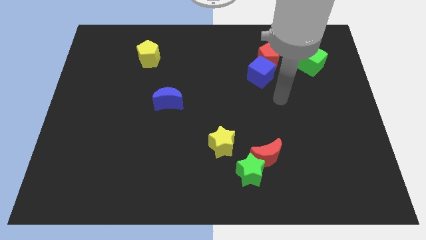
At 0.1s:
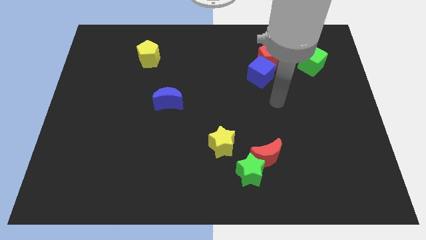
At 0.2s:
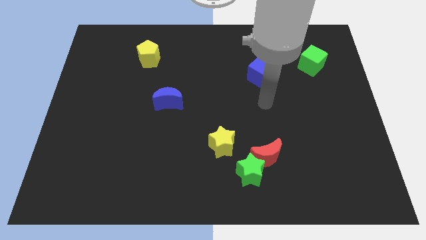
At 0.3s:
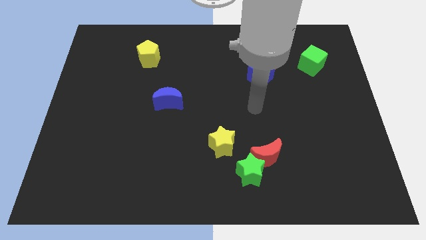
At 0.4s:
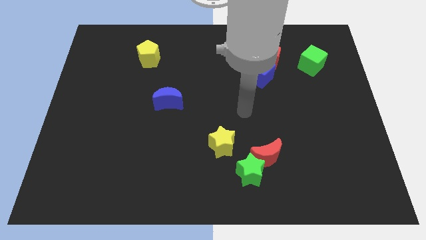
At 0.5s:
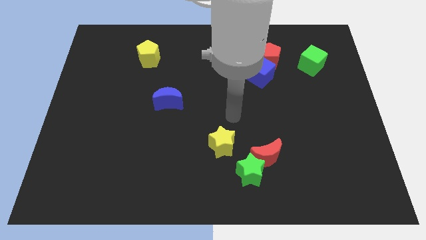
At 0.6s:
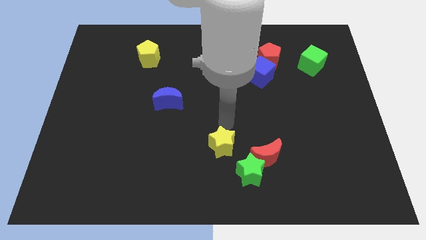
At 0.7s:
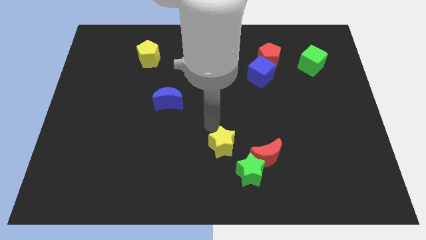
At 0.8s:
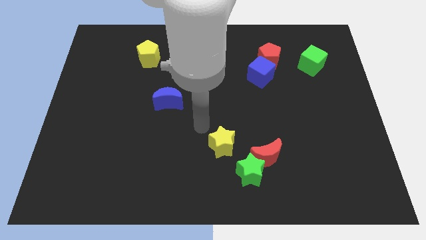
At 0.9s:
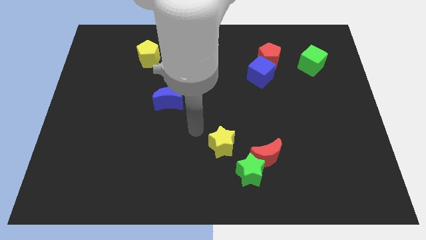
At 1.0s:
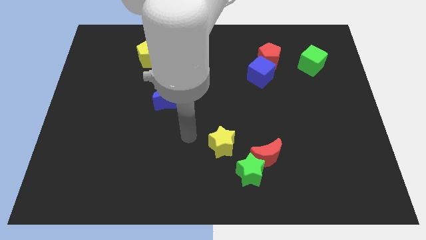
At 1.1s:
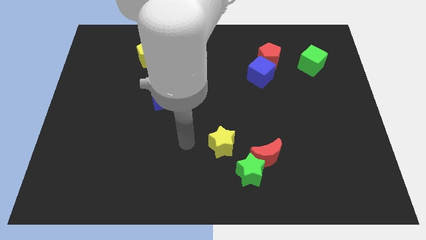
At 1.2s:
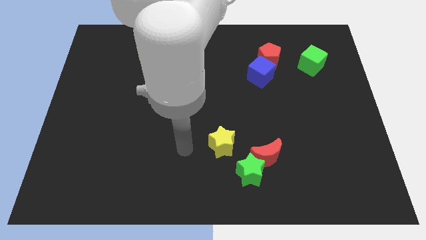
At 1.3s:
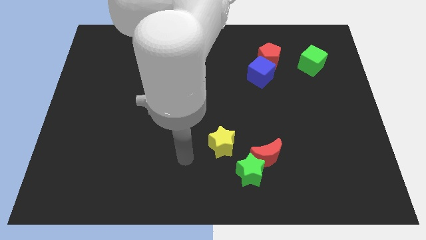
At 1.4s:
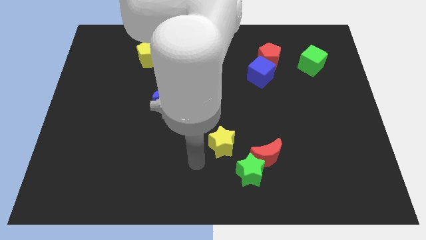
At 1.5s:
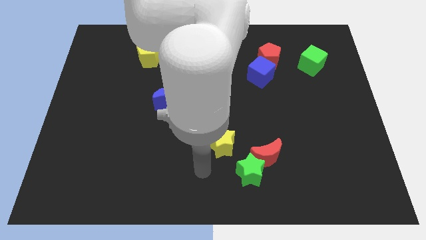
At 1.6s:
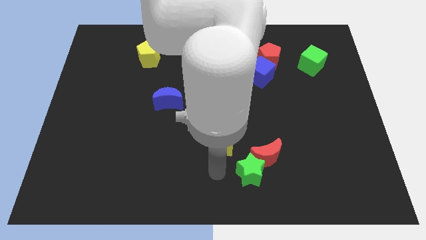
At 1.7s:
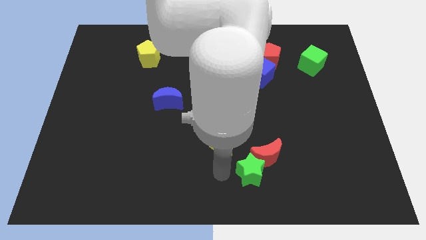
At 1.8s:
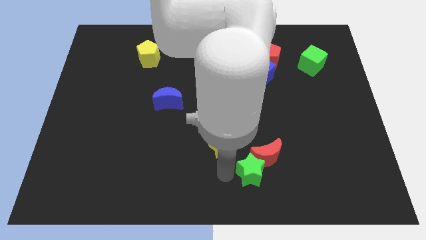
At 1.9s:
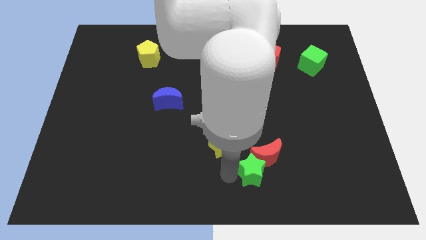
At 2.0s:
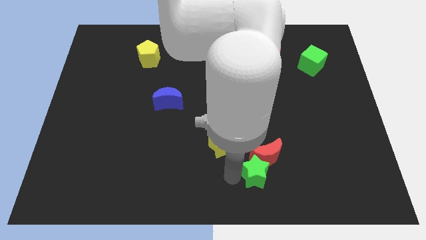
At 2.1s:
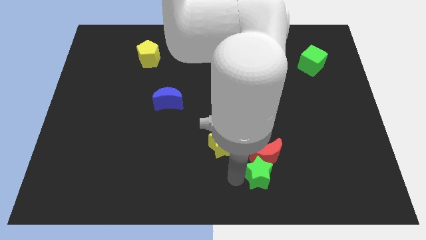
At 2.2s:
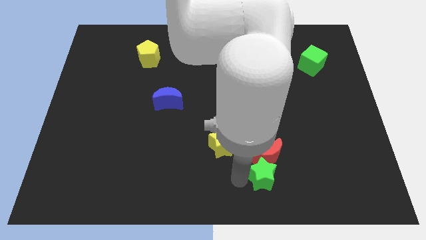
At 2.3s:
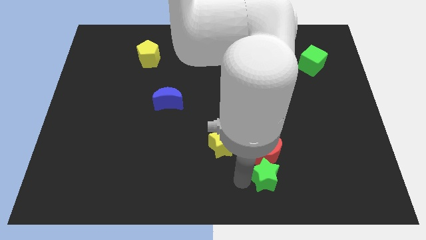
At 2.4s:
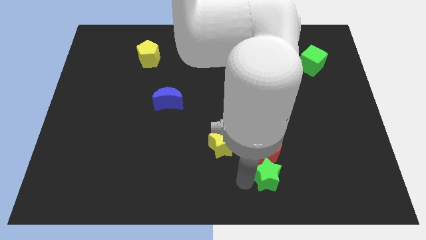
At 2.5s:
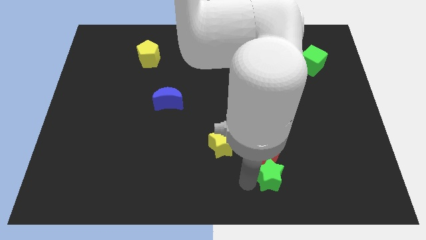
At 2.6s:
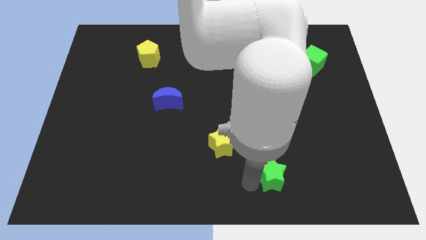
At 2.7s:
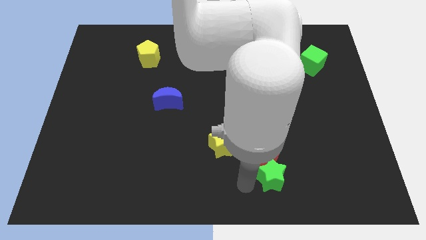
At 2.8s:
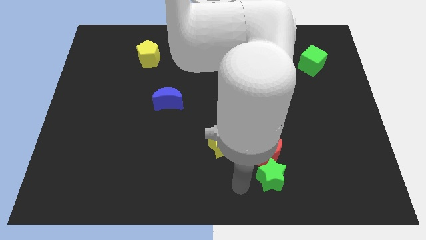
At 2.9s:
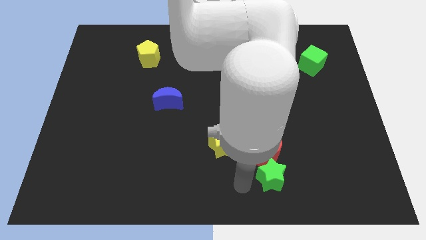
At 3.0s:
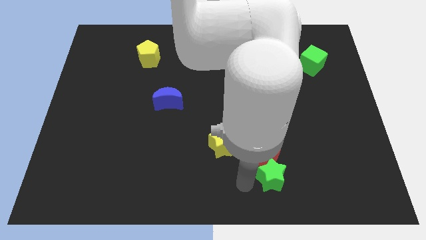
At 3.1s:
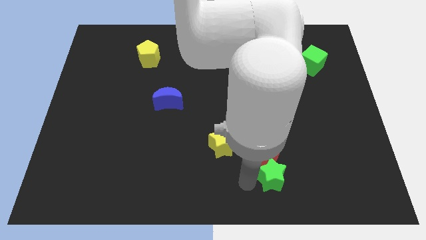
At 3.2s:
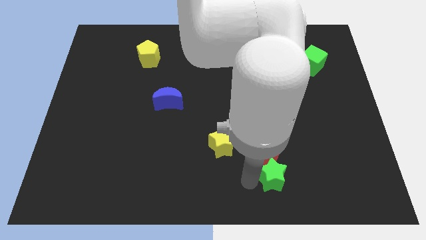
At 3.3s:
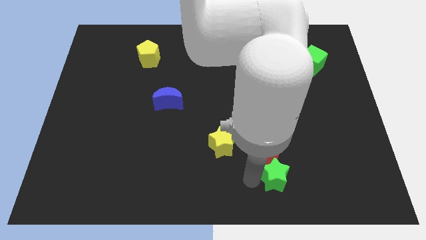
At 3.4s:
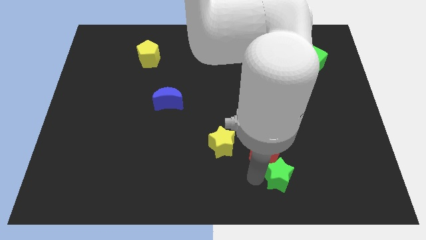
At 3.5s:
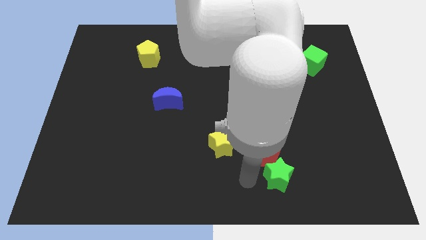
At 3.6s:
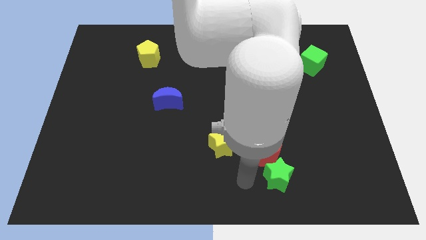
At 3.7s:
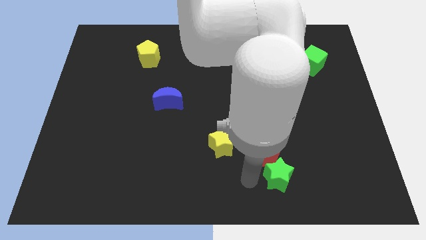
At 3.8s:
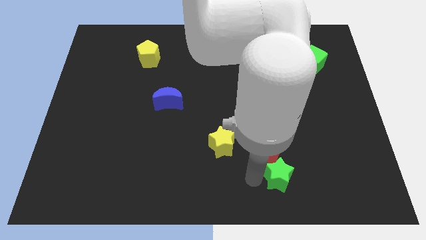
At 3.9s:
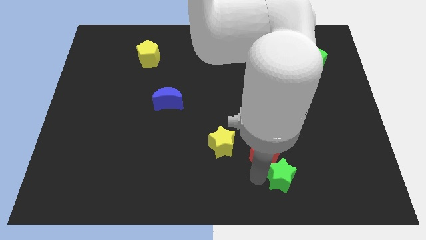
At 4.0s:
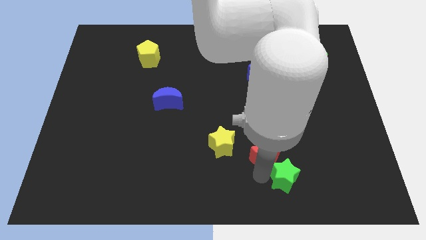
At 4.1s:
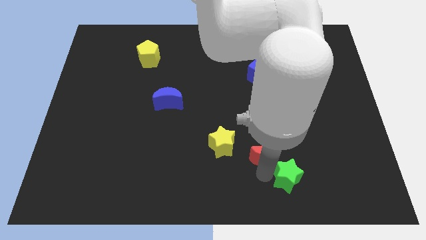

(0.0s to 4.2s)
slightly slide the green star to the right

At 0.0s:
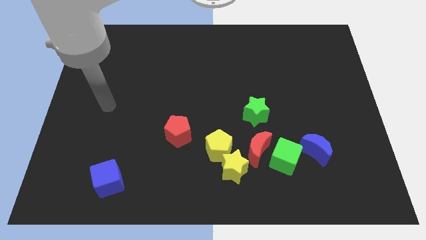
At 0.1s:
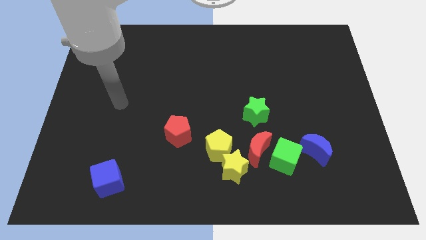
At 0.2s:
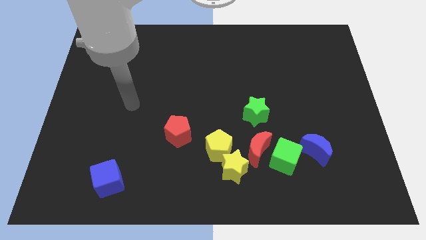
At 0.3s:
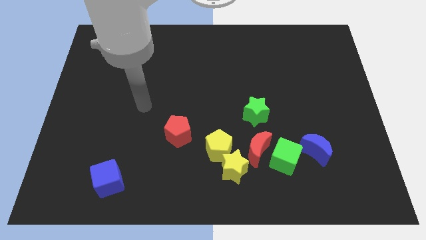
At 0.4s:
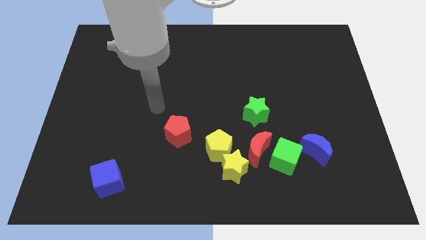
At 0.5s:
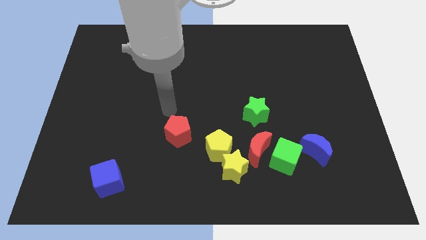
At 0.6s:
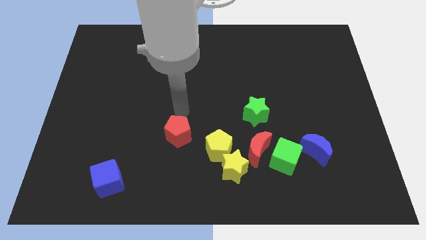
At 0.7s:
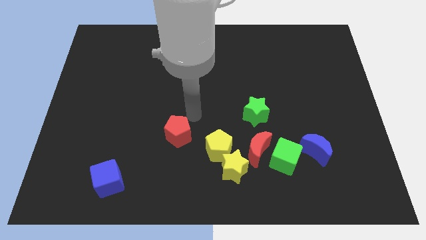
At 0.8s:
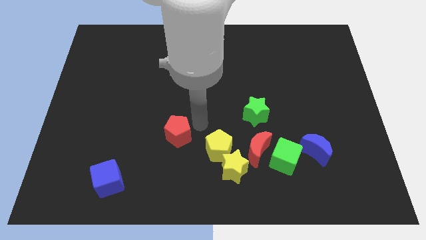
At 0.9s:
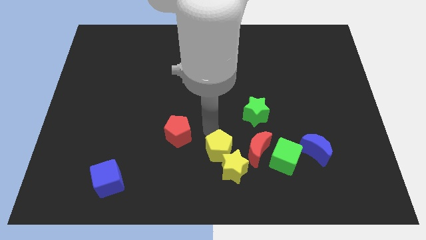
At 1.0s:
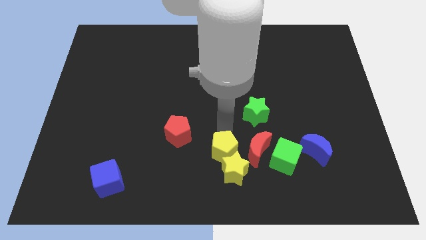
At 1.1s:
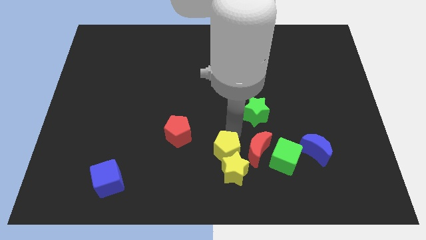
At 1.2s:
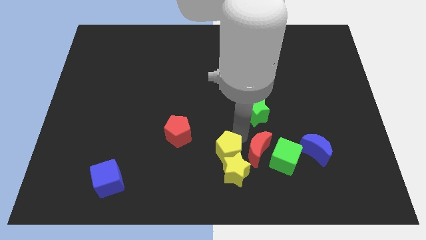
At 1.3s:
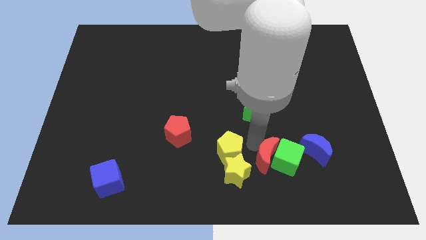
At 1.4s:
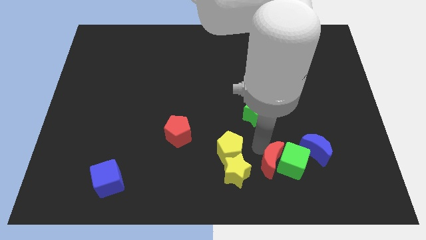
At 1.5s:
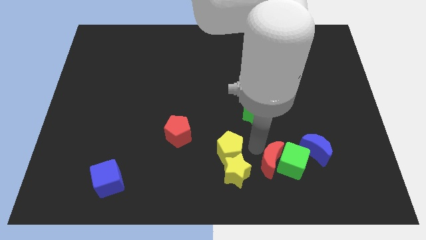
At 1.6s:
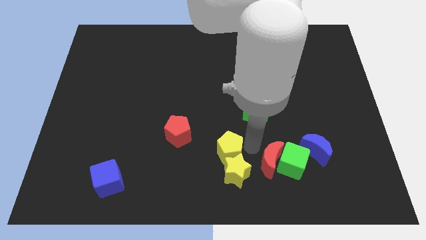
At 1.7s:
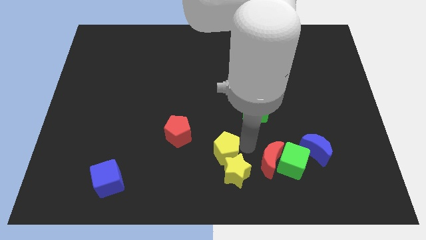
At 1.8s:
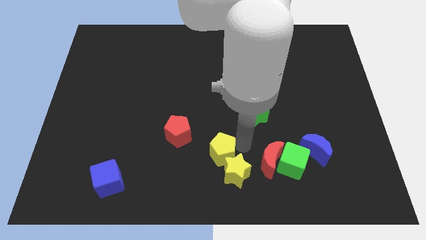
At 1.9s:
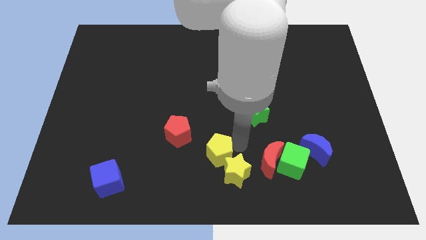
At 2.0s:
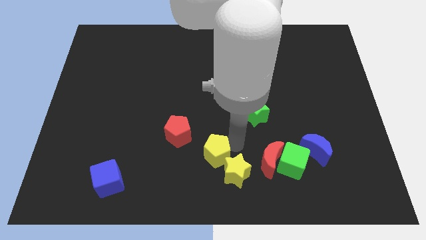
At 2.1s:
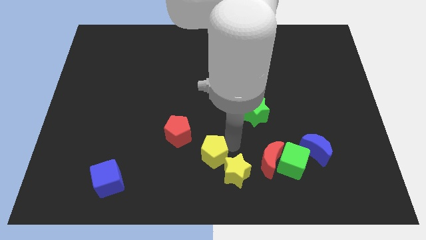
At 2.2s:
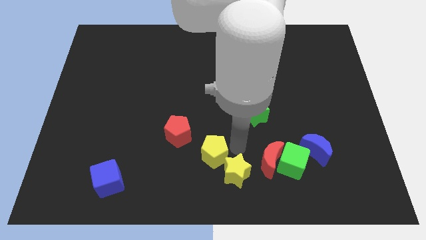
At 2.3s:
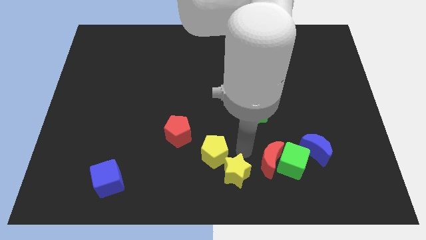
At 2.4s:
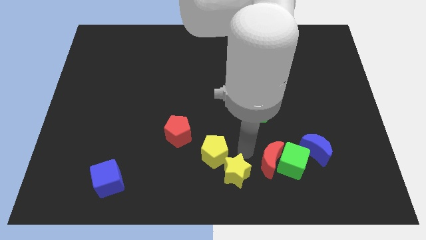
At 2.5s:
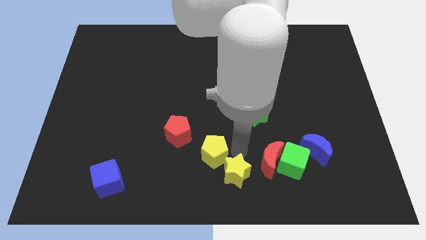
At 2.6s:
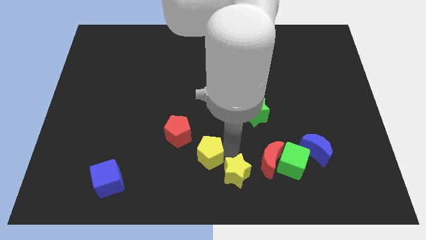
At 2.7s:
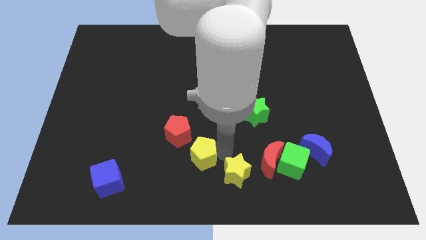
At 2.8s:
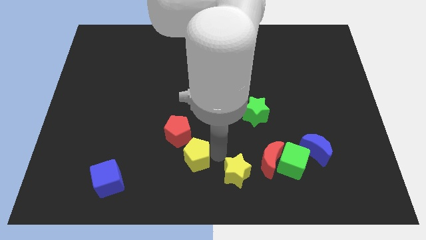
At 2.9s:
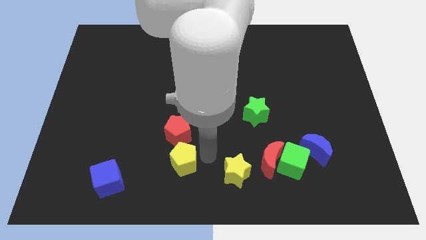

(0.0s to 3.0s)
slightly push the yellow pentagon left

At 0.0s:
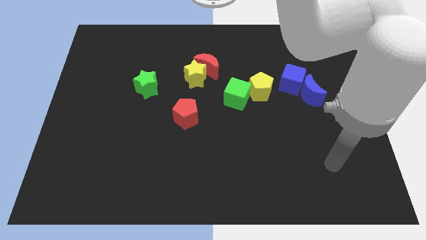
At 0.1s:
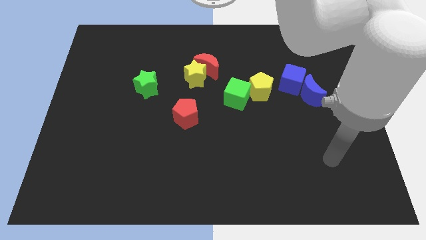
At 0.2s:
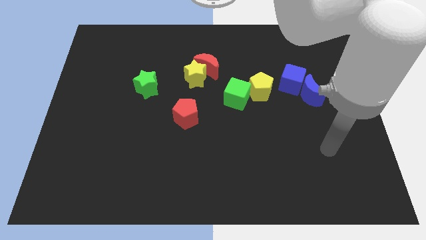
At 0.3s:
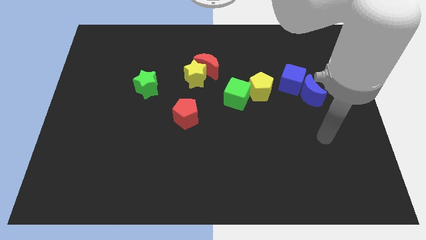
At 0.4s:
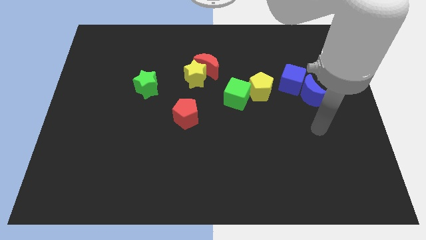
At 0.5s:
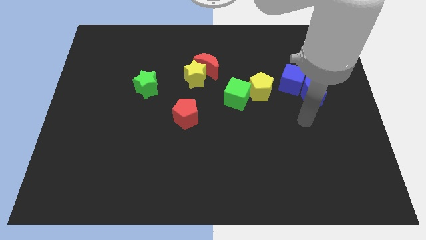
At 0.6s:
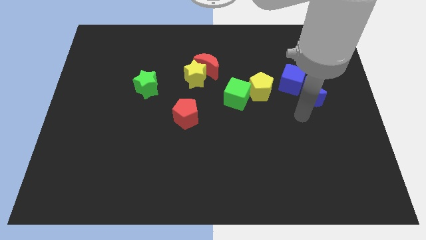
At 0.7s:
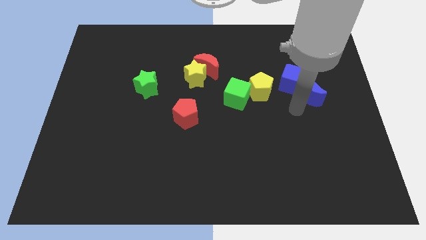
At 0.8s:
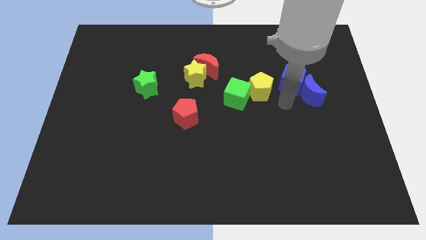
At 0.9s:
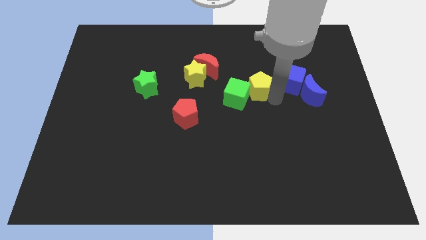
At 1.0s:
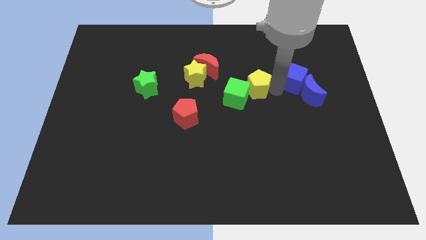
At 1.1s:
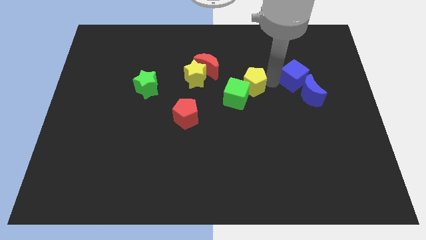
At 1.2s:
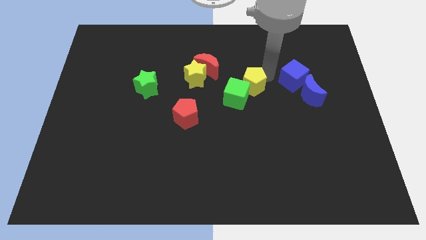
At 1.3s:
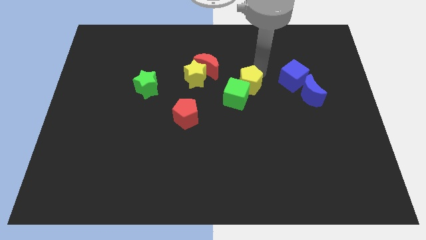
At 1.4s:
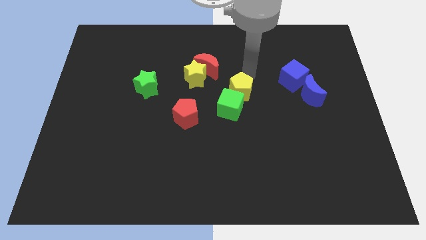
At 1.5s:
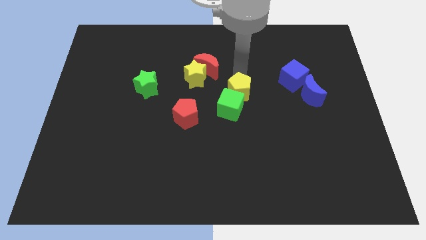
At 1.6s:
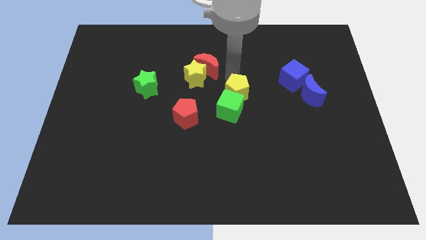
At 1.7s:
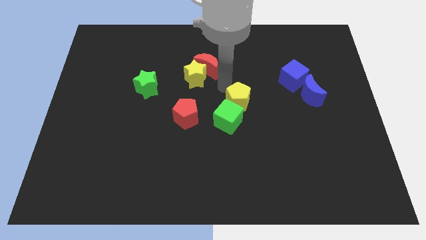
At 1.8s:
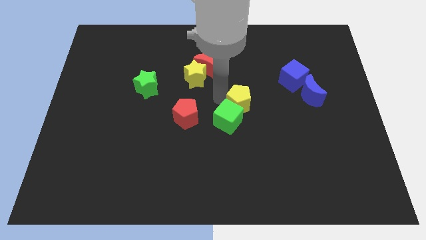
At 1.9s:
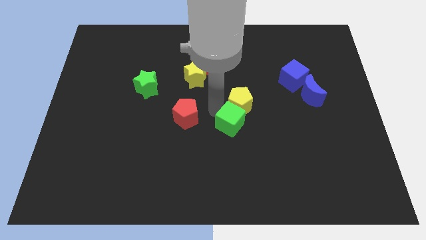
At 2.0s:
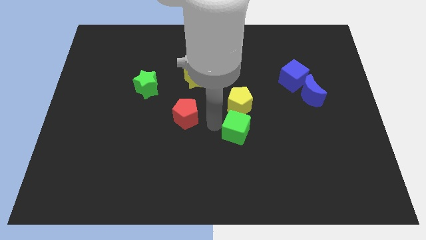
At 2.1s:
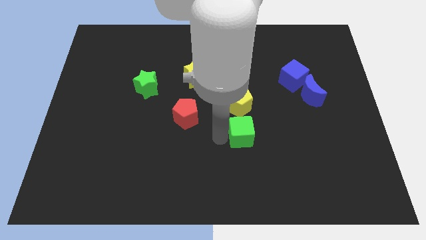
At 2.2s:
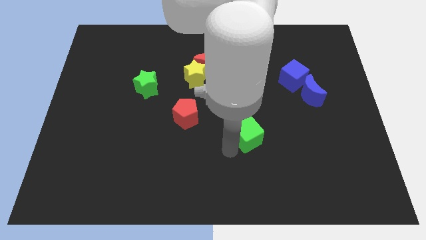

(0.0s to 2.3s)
slightly move the green cube diagonally down and right
